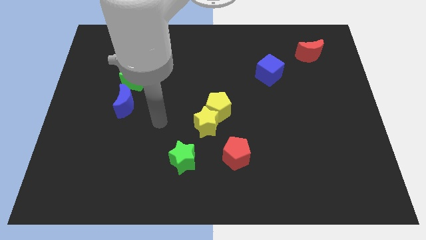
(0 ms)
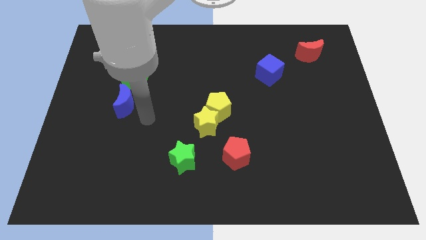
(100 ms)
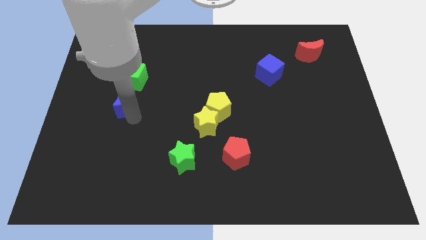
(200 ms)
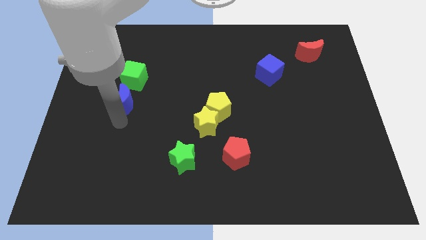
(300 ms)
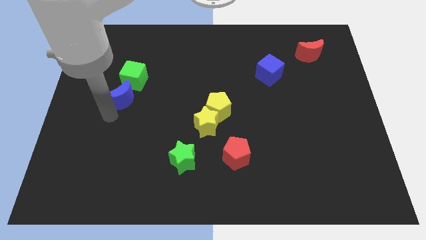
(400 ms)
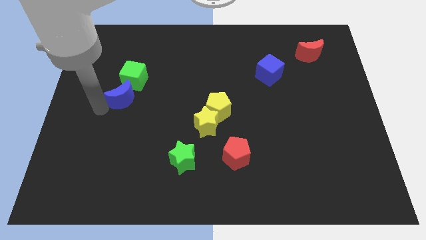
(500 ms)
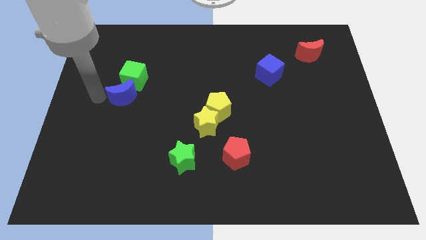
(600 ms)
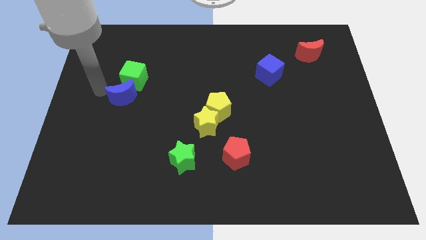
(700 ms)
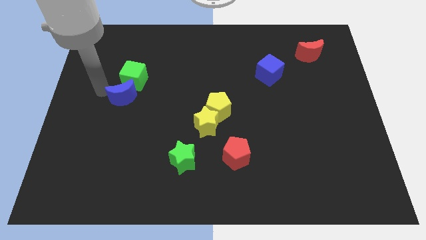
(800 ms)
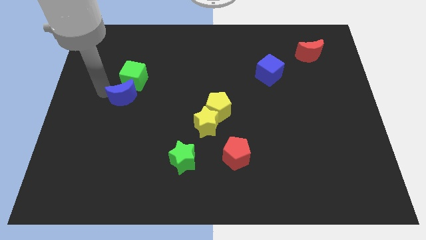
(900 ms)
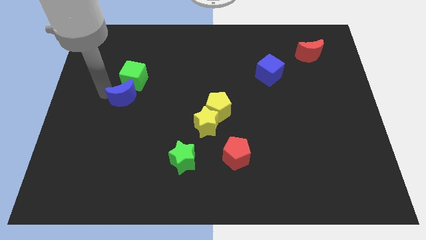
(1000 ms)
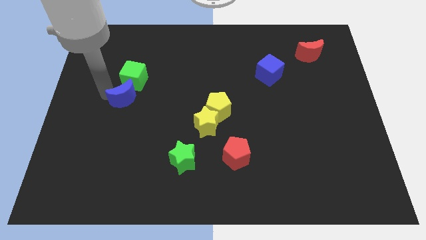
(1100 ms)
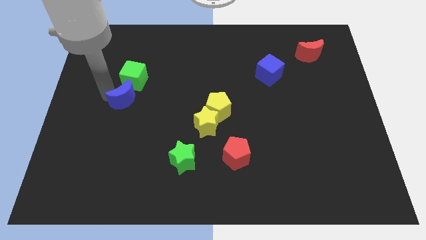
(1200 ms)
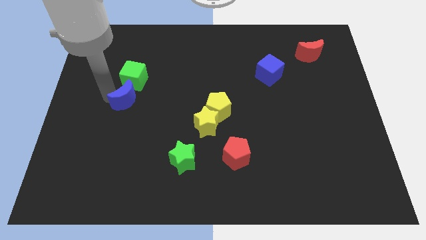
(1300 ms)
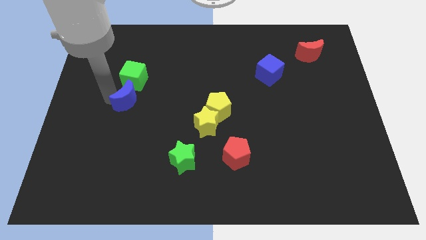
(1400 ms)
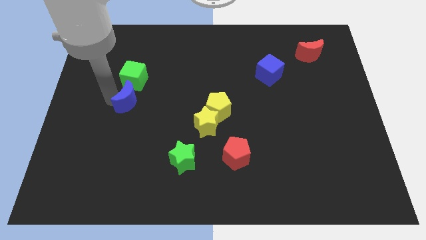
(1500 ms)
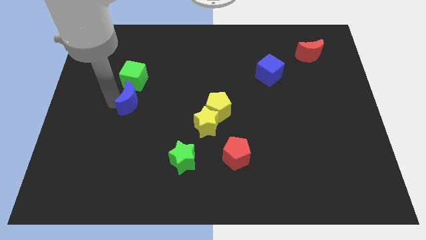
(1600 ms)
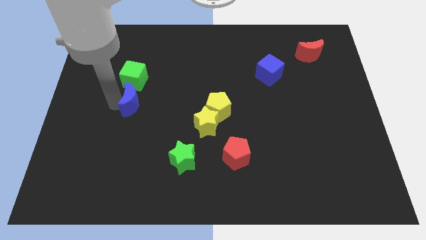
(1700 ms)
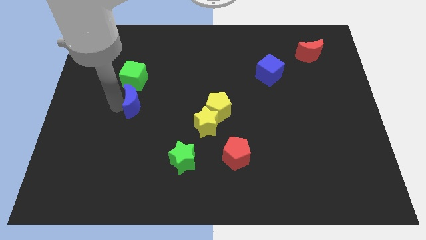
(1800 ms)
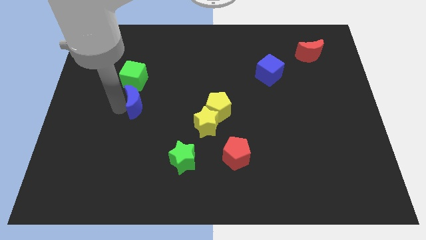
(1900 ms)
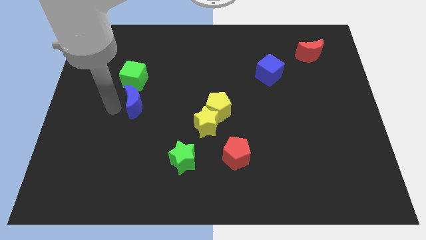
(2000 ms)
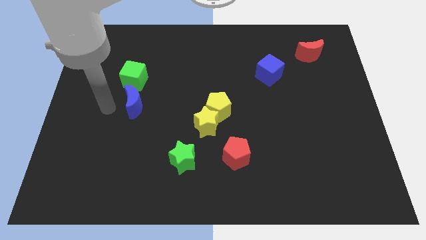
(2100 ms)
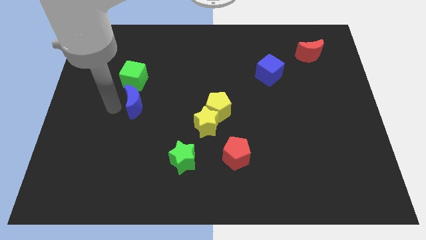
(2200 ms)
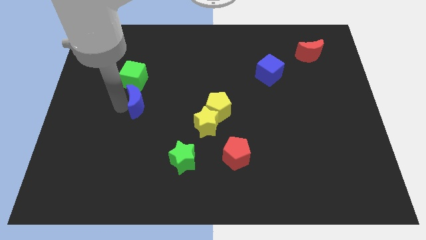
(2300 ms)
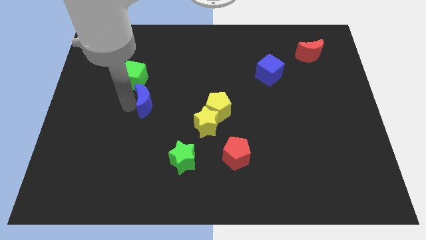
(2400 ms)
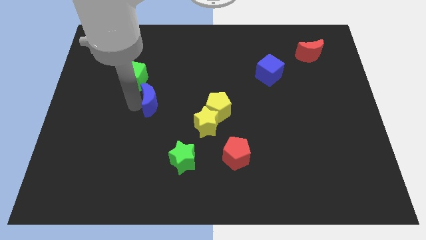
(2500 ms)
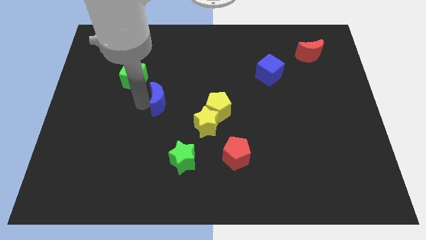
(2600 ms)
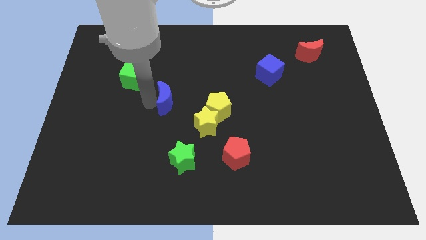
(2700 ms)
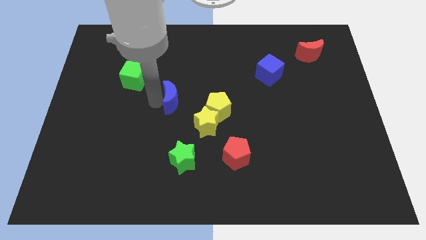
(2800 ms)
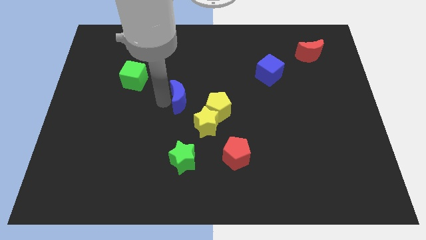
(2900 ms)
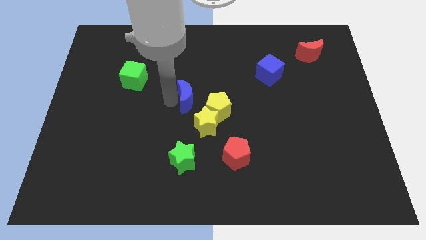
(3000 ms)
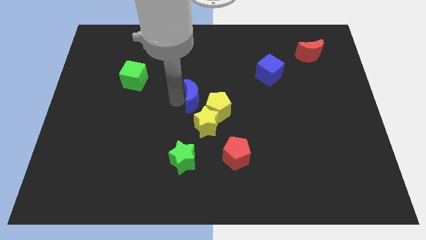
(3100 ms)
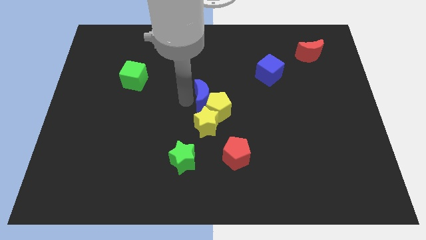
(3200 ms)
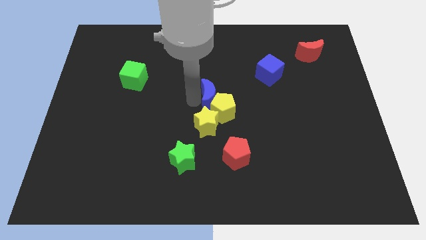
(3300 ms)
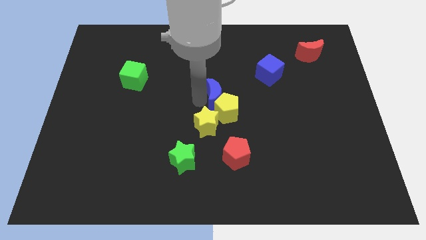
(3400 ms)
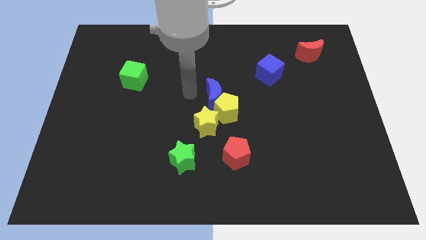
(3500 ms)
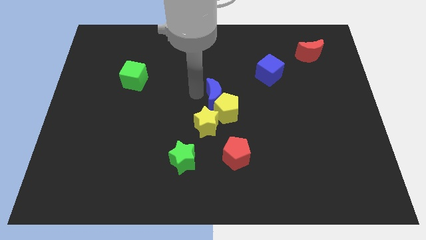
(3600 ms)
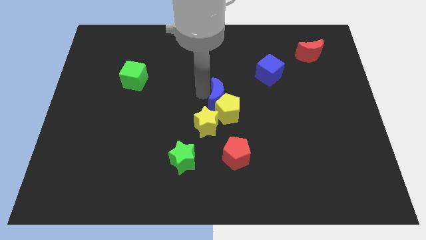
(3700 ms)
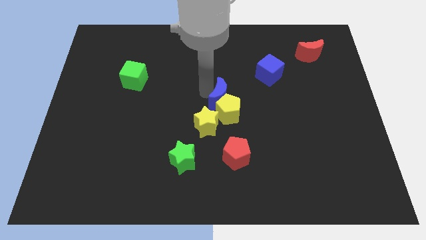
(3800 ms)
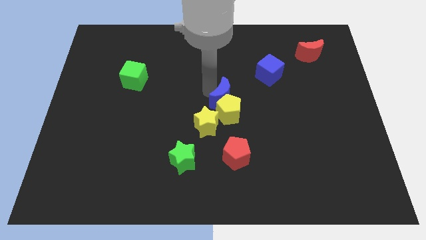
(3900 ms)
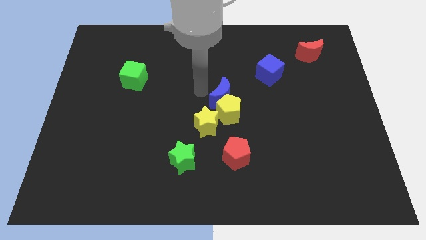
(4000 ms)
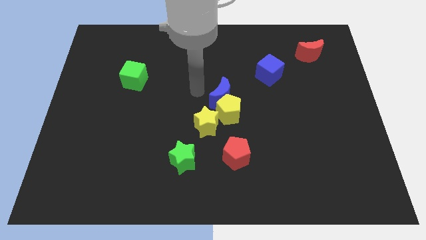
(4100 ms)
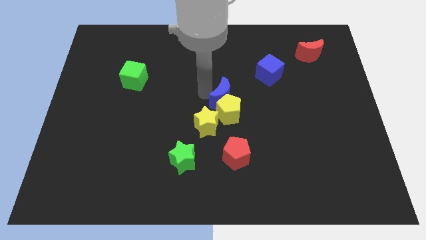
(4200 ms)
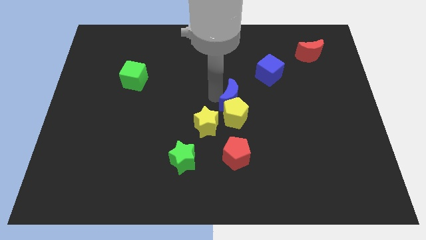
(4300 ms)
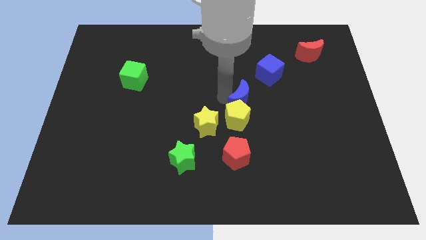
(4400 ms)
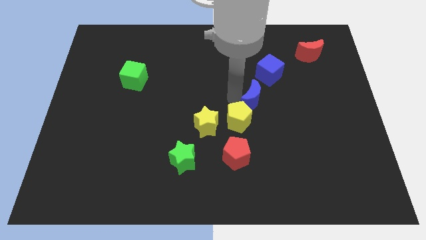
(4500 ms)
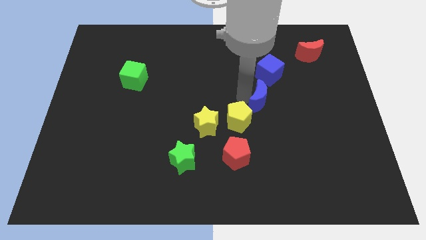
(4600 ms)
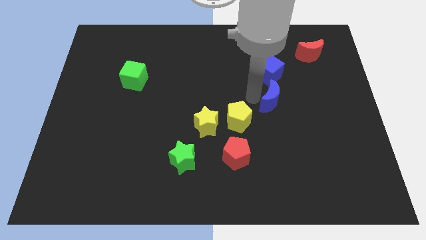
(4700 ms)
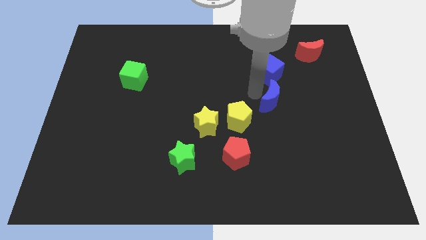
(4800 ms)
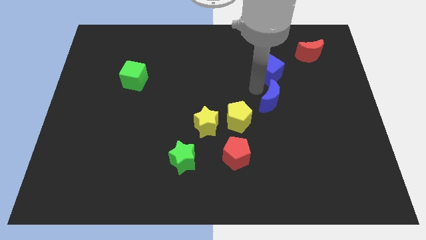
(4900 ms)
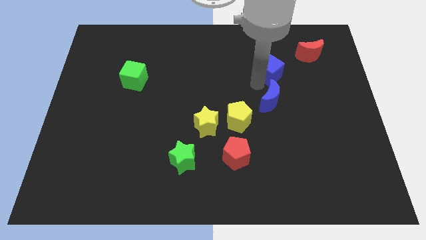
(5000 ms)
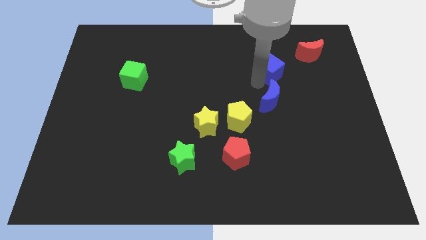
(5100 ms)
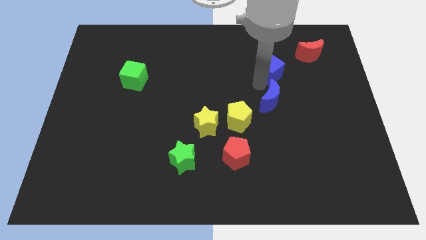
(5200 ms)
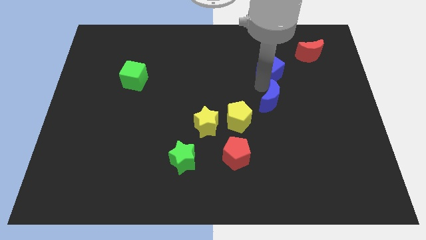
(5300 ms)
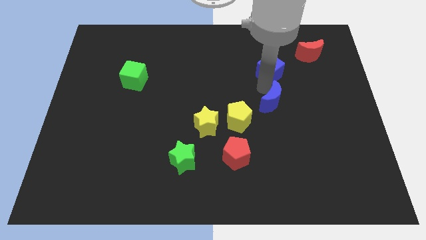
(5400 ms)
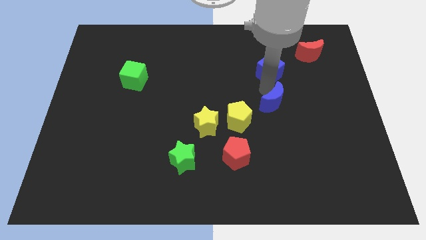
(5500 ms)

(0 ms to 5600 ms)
push the blue moon to the right of the yellow pentagon

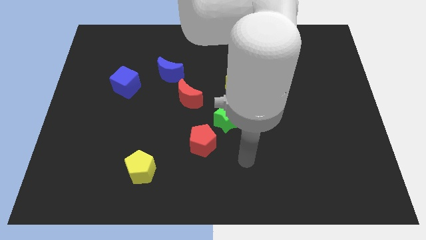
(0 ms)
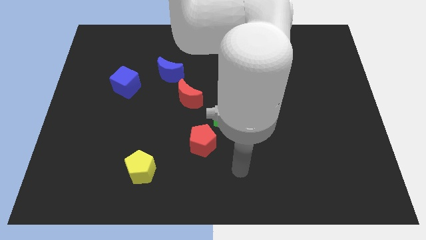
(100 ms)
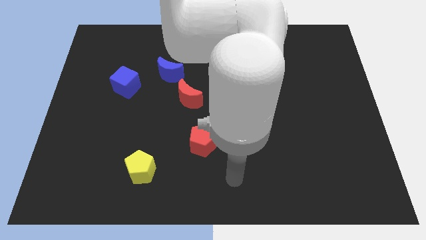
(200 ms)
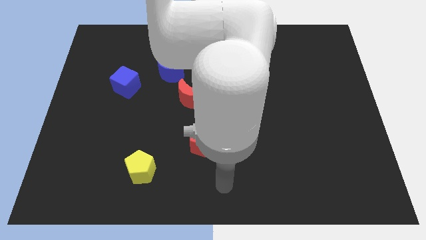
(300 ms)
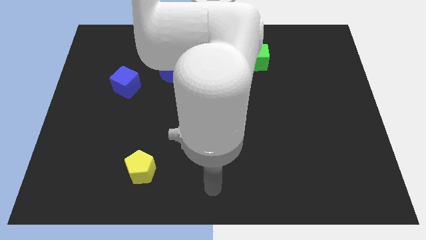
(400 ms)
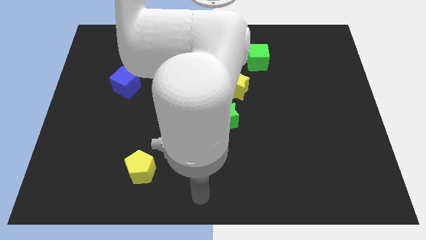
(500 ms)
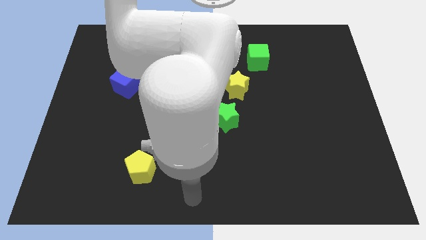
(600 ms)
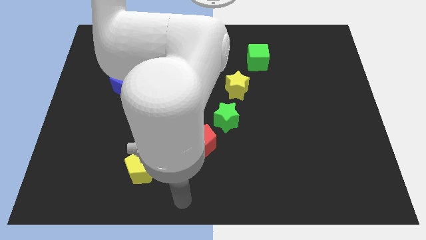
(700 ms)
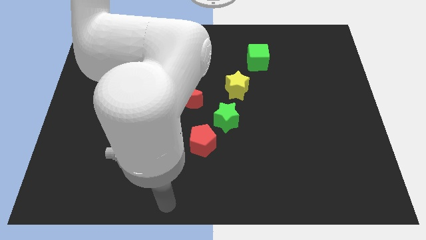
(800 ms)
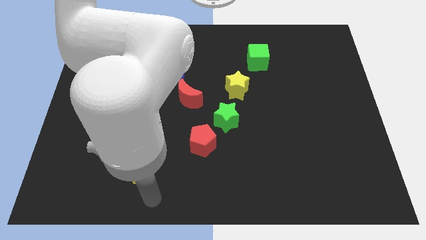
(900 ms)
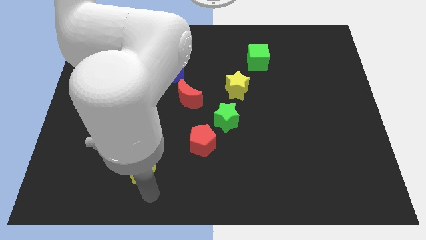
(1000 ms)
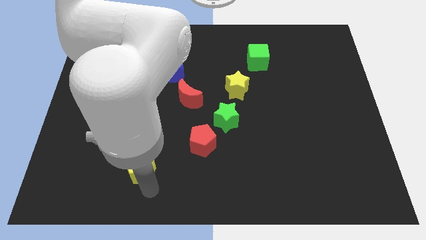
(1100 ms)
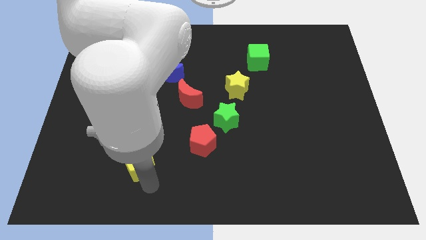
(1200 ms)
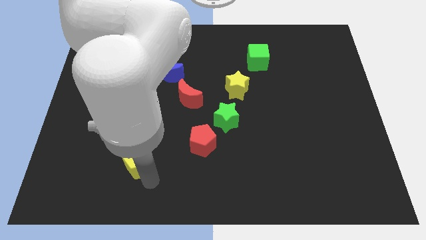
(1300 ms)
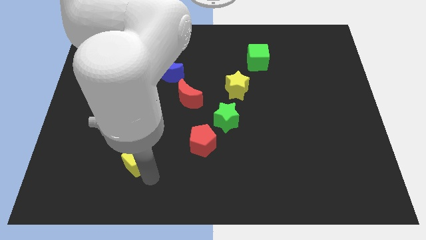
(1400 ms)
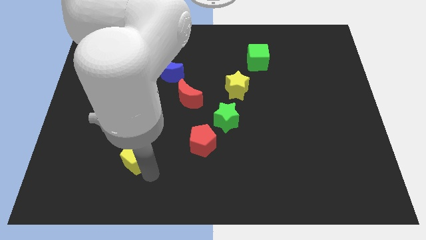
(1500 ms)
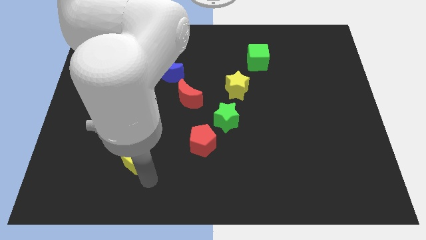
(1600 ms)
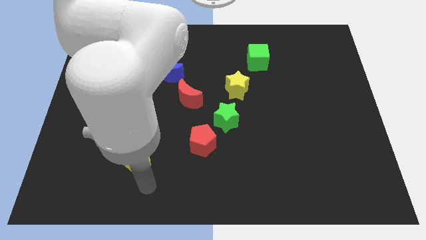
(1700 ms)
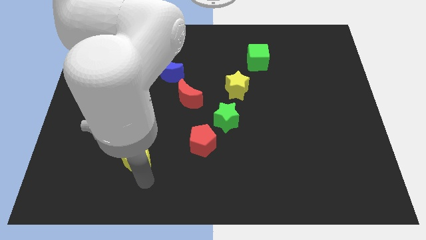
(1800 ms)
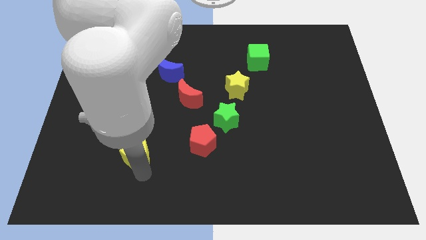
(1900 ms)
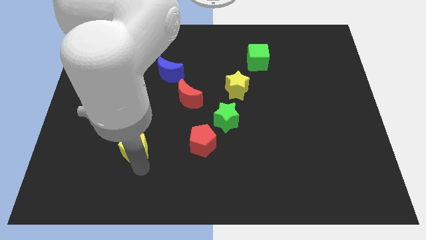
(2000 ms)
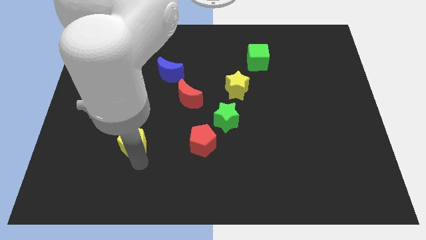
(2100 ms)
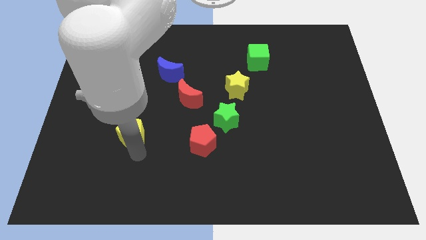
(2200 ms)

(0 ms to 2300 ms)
move the yellow pentagon below the blue cube
